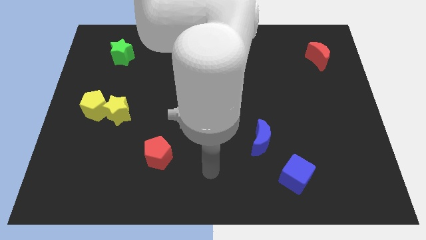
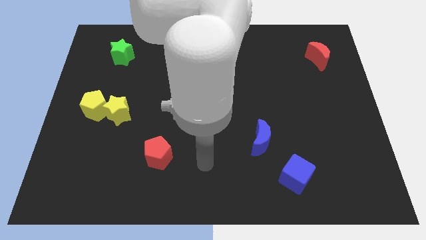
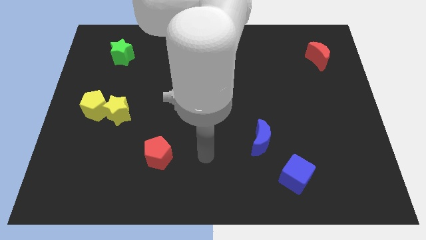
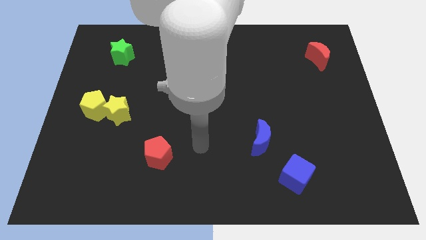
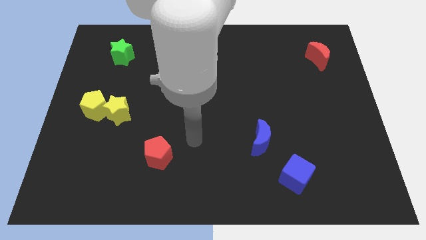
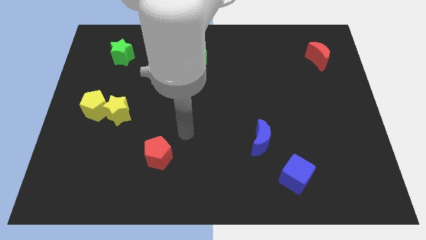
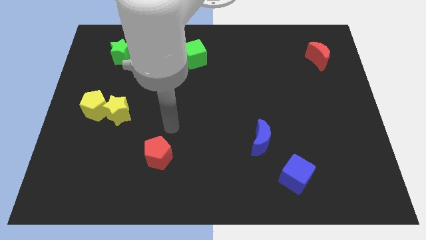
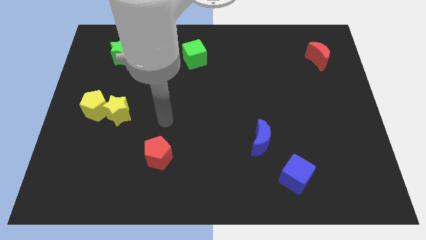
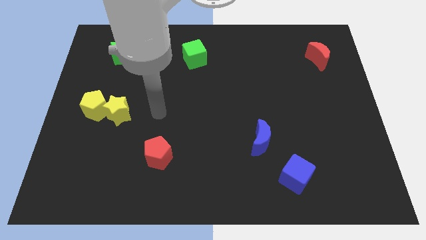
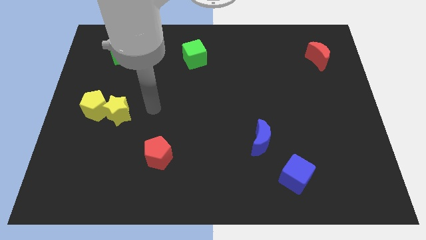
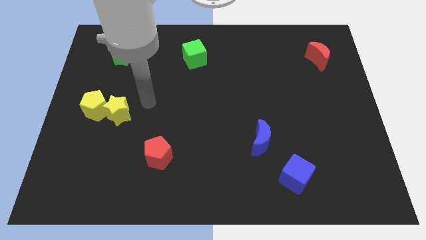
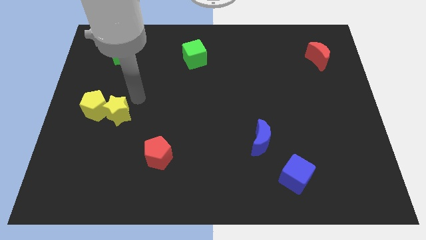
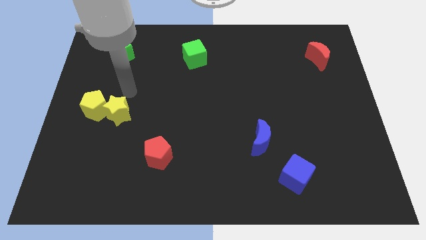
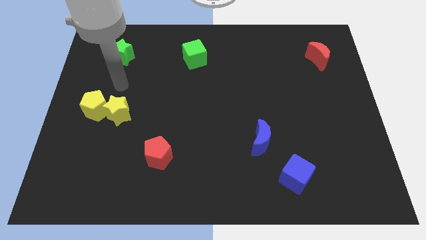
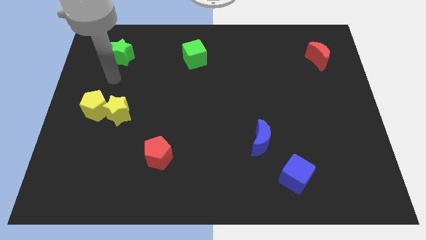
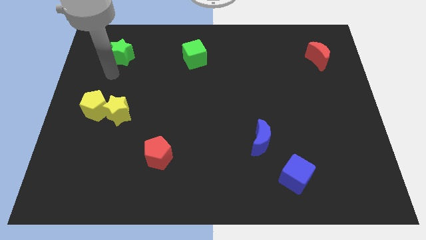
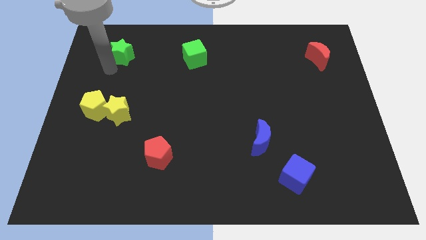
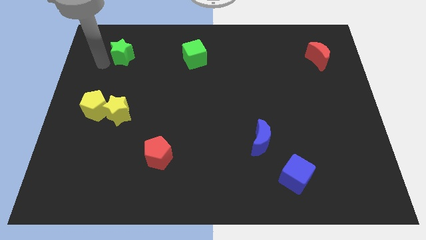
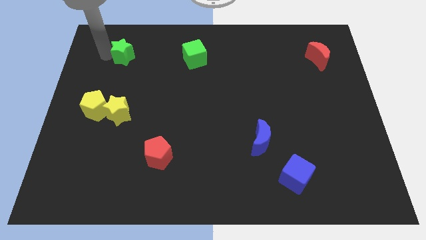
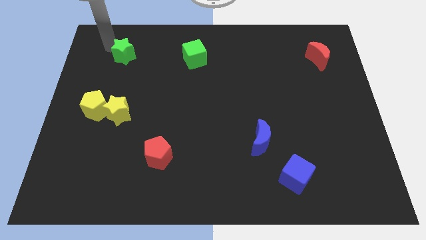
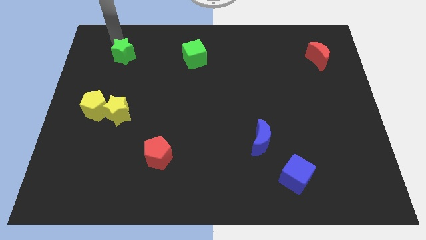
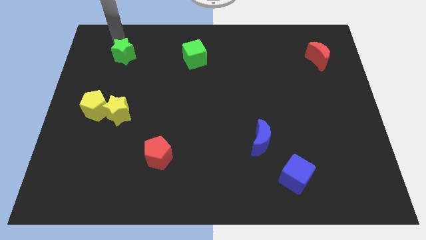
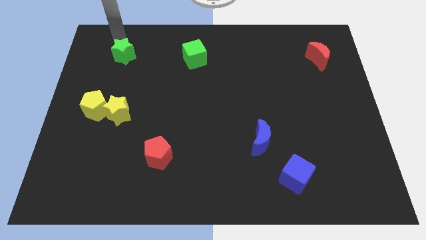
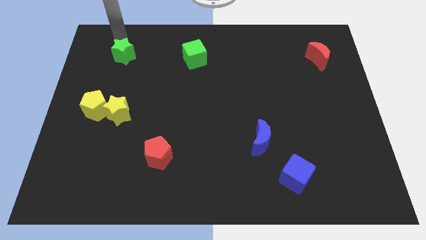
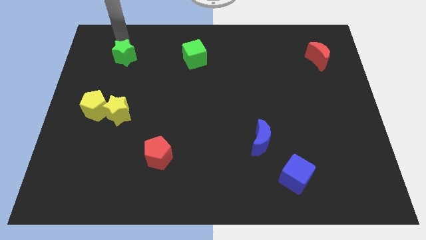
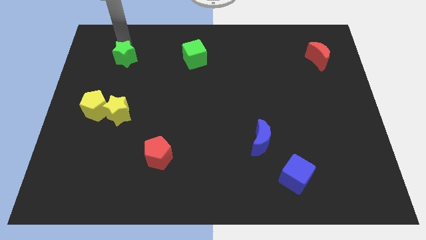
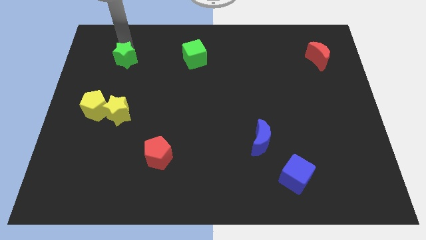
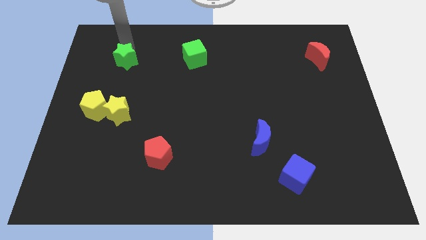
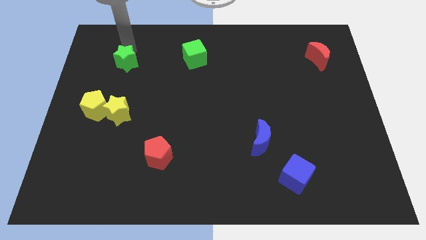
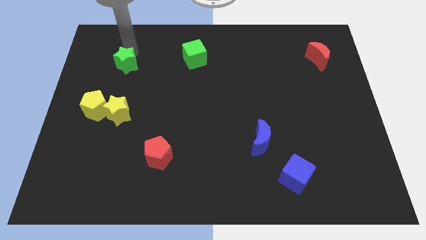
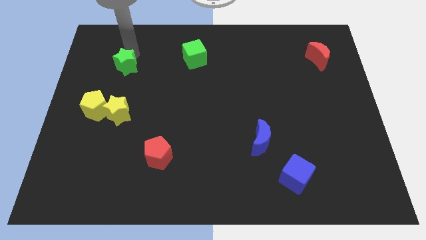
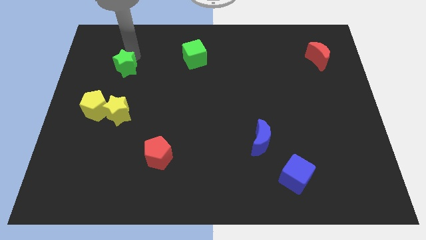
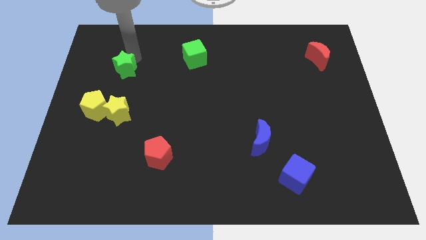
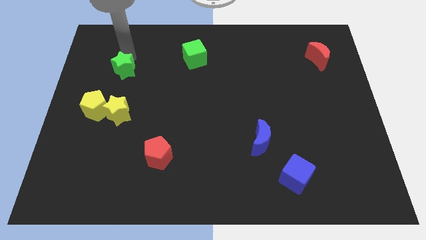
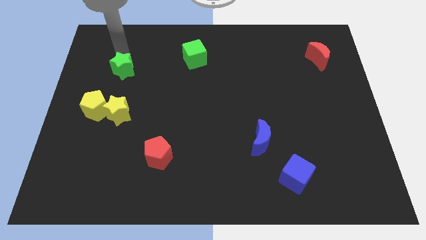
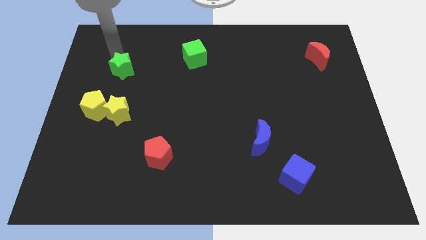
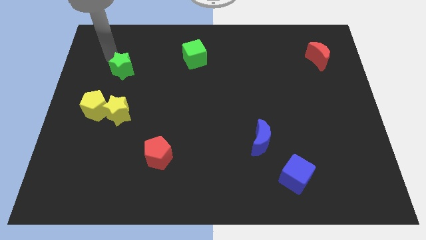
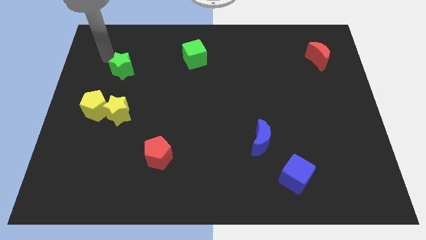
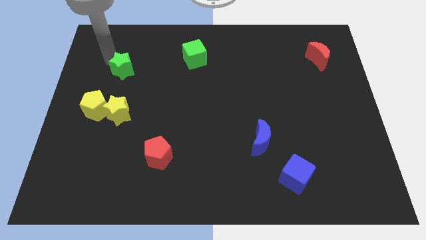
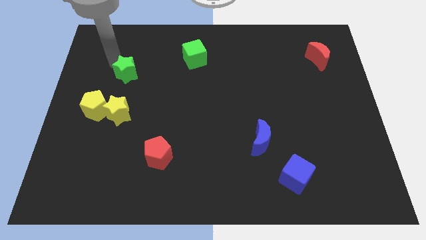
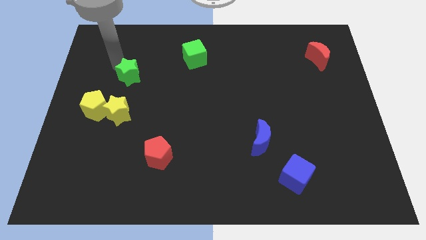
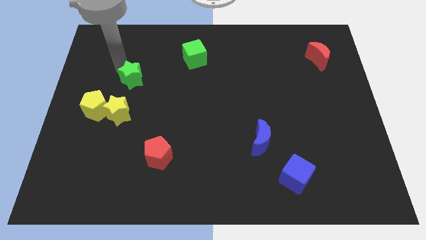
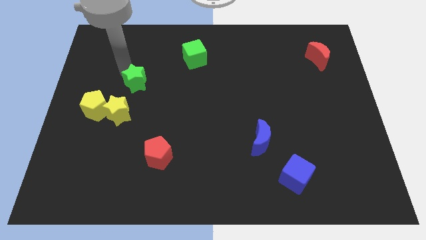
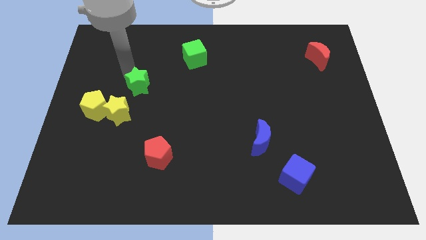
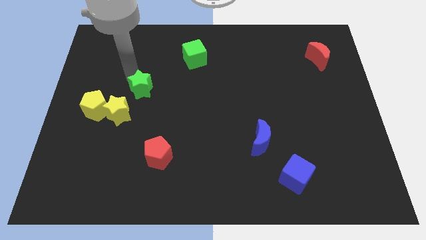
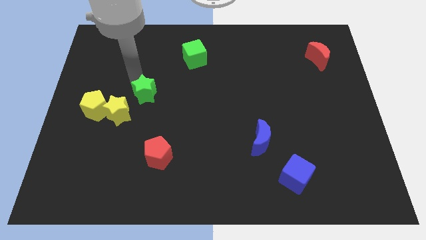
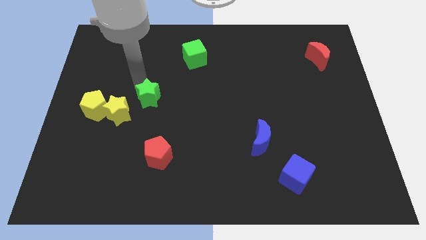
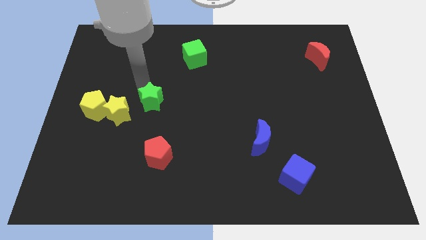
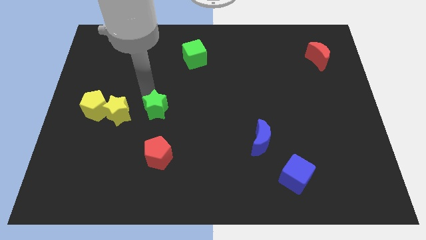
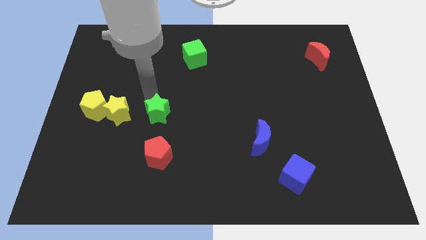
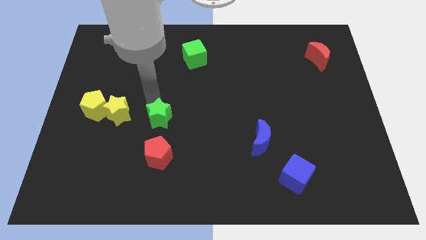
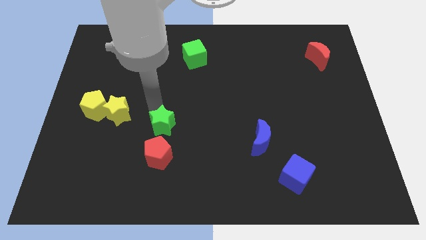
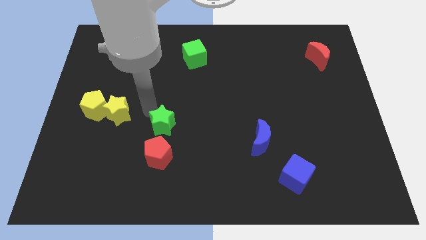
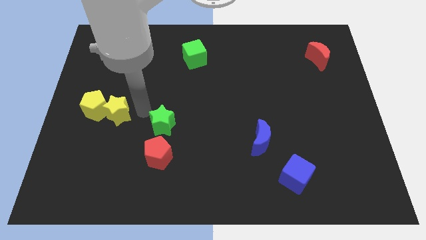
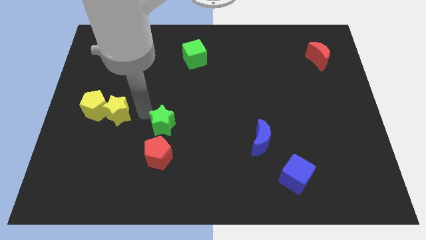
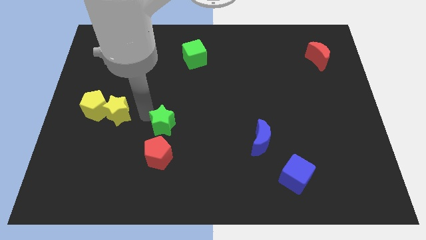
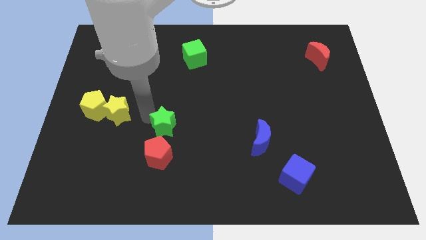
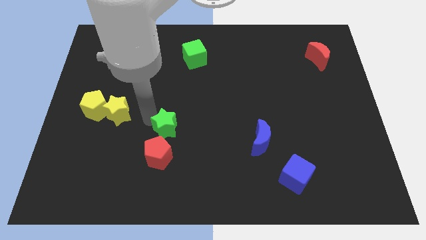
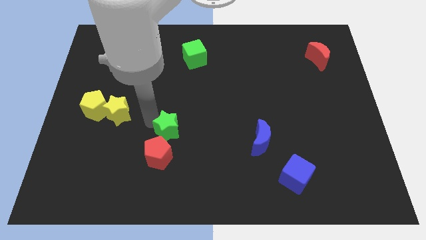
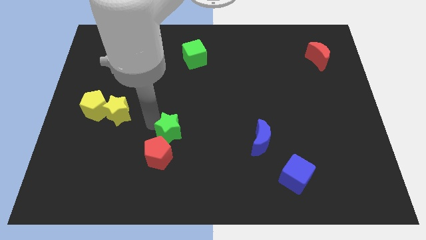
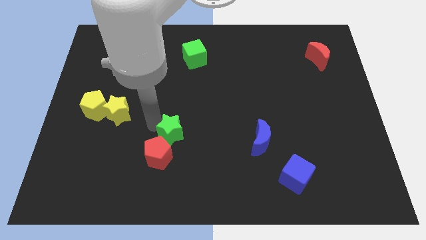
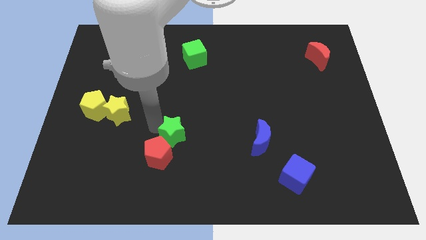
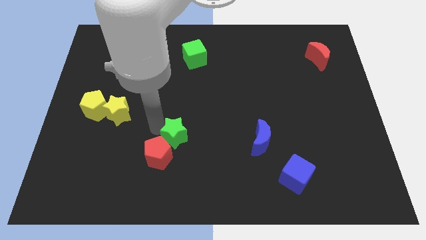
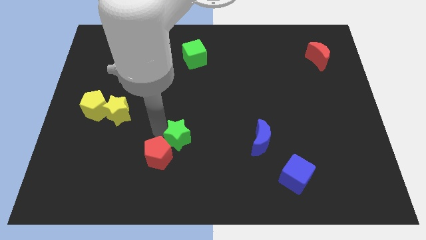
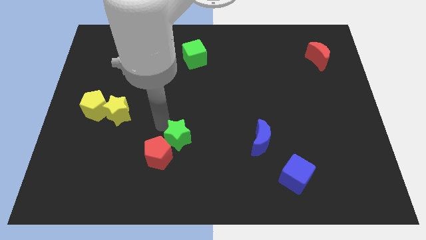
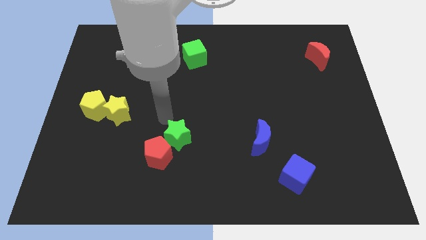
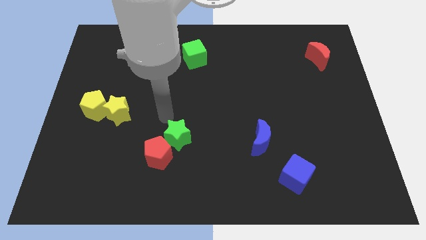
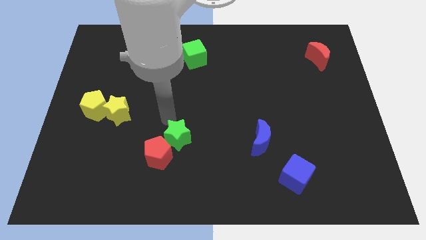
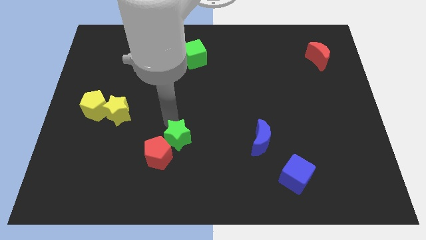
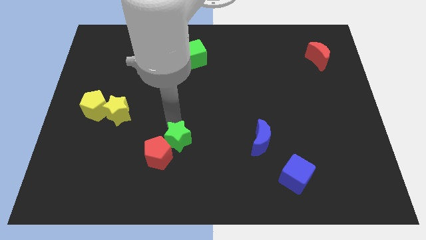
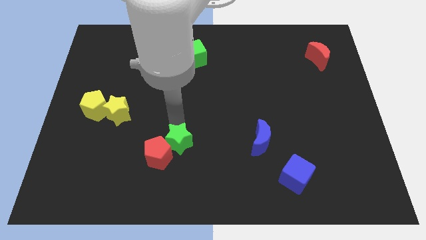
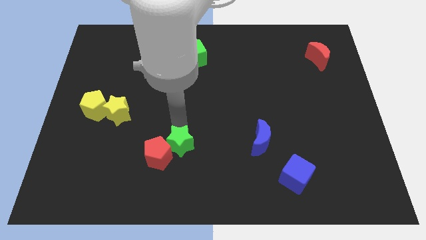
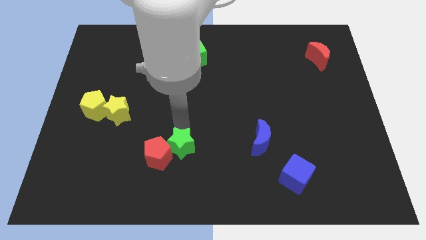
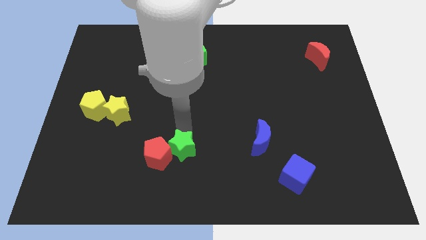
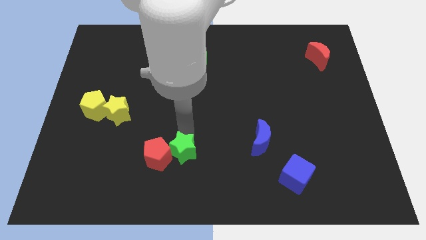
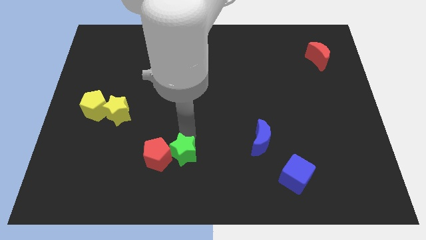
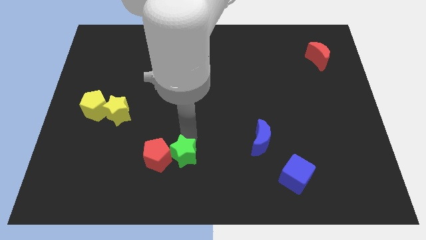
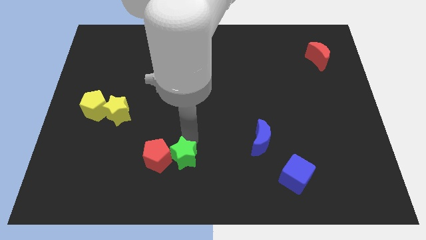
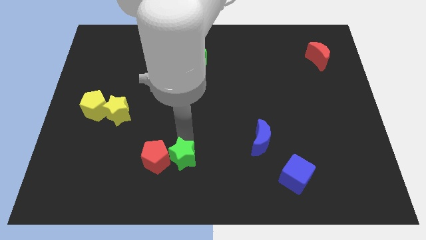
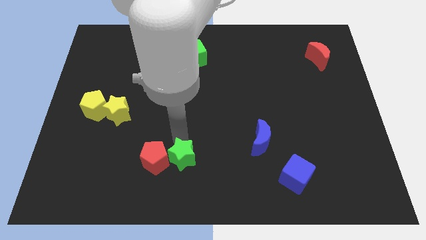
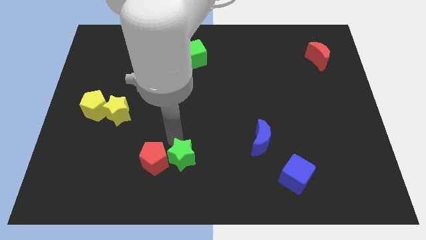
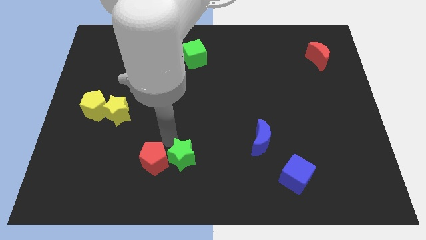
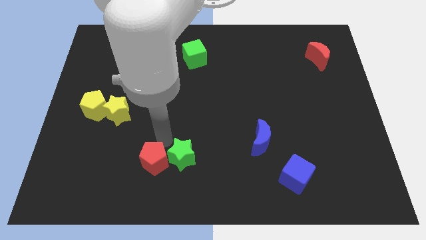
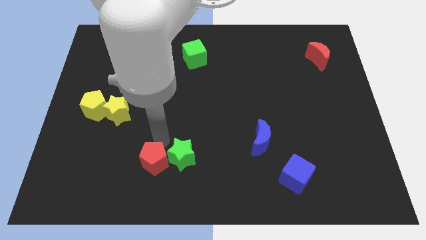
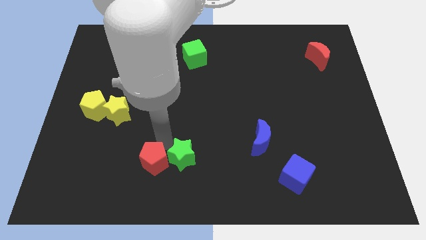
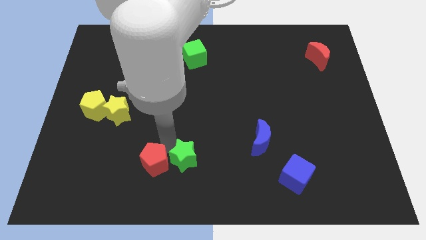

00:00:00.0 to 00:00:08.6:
push the green star to the bottom
